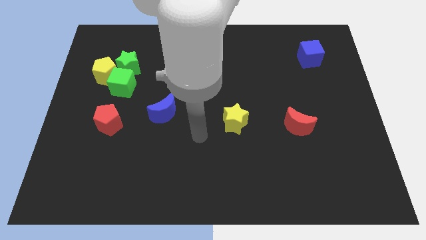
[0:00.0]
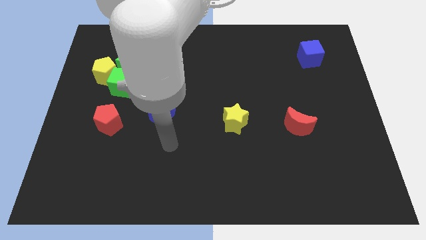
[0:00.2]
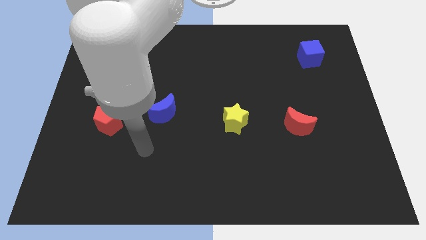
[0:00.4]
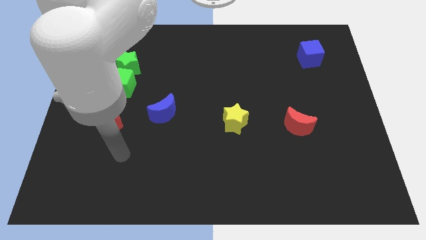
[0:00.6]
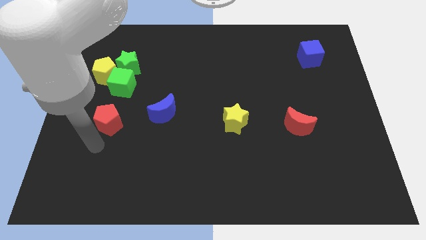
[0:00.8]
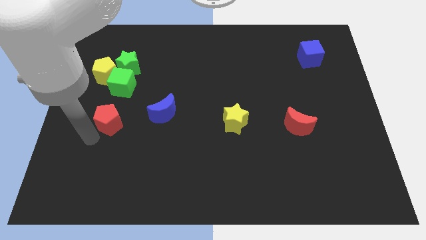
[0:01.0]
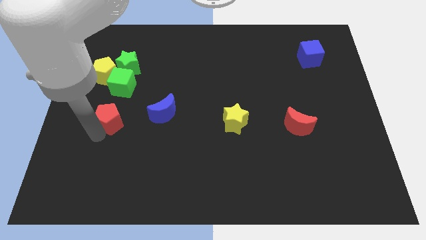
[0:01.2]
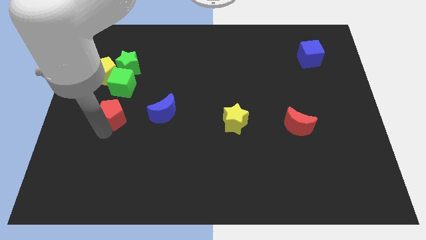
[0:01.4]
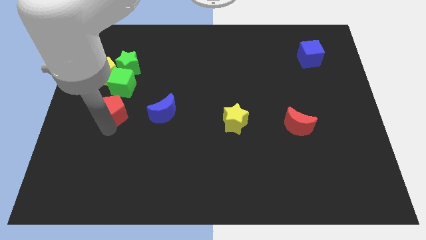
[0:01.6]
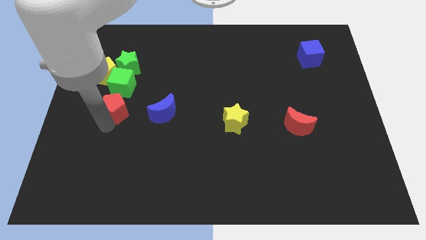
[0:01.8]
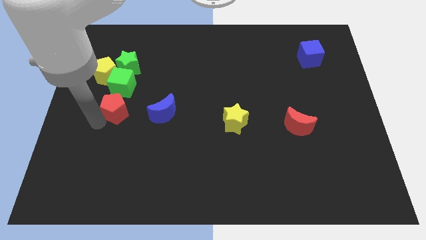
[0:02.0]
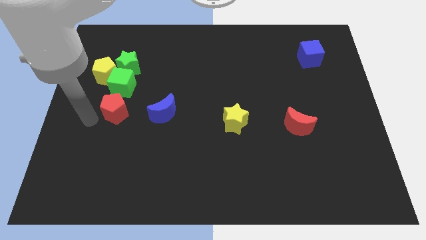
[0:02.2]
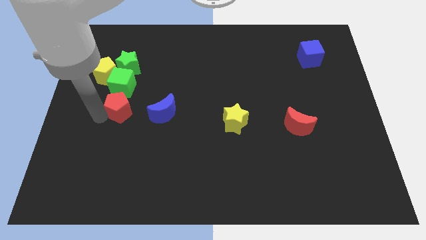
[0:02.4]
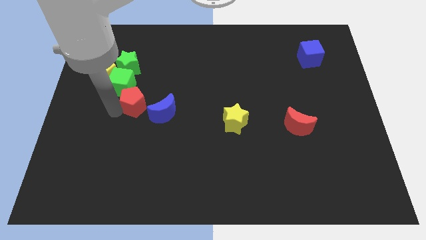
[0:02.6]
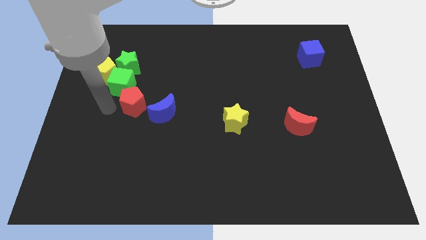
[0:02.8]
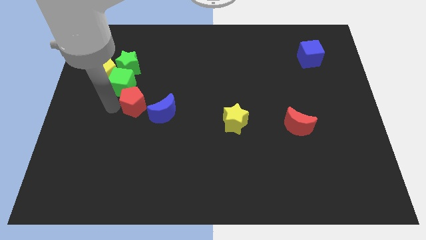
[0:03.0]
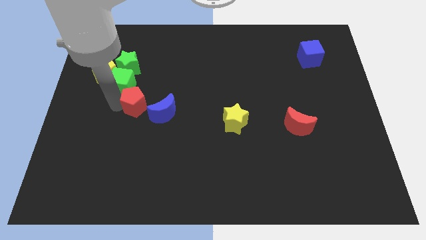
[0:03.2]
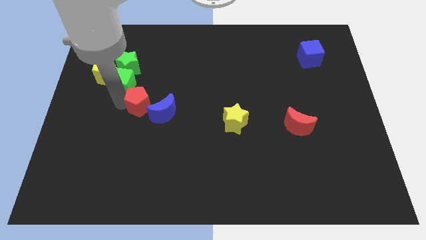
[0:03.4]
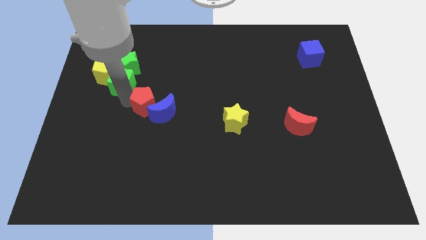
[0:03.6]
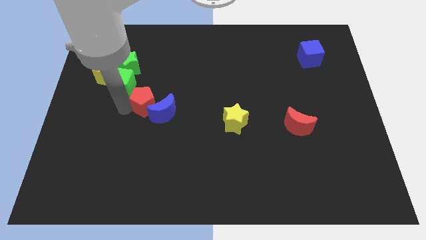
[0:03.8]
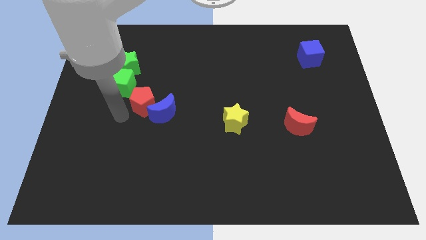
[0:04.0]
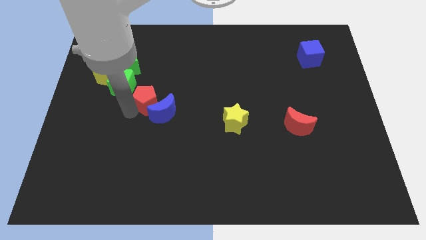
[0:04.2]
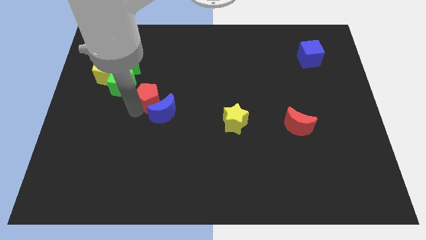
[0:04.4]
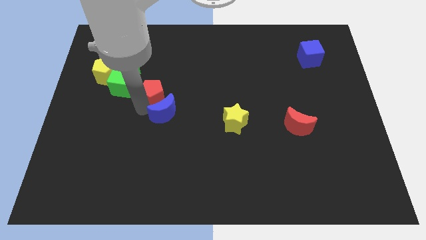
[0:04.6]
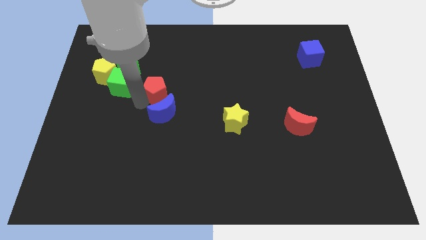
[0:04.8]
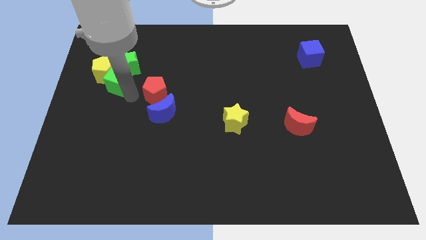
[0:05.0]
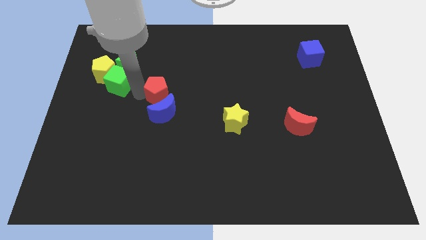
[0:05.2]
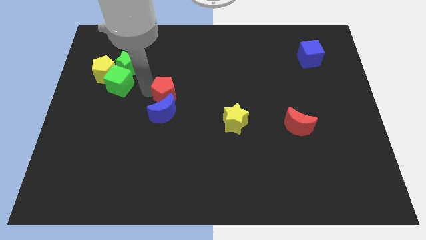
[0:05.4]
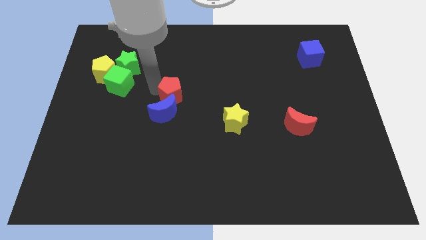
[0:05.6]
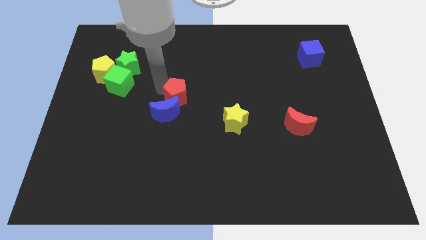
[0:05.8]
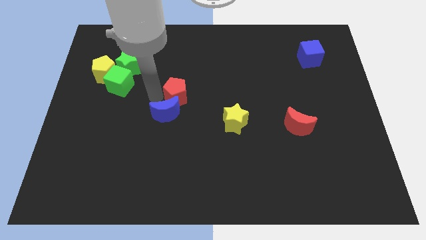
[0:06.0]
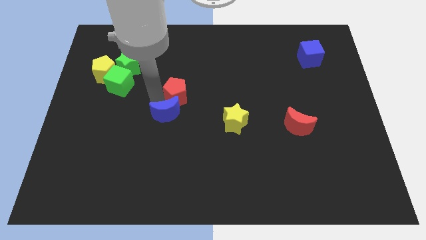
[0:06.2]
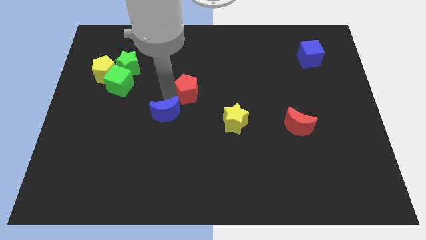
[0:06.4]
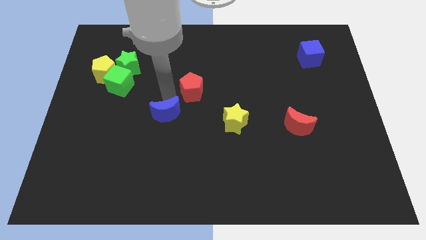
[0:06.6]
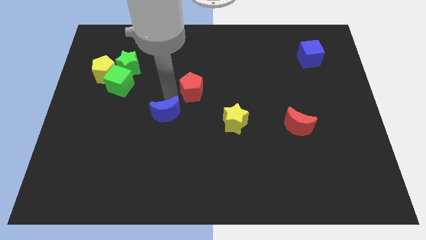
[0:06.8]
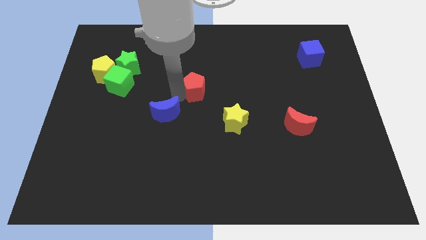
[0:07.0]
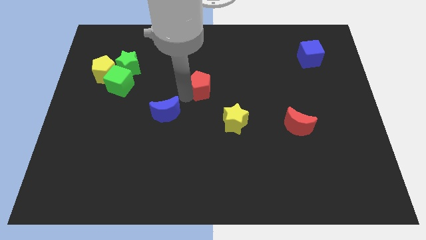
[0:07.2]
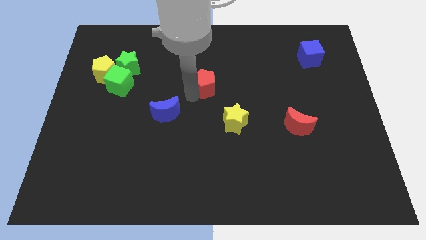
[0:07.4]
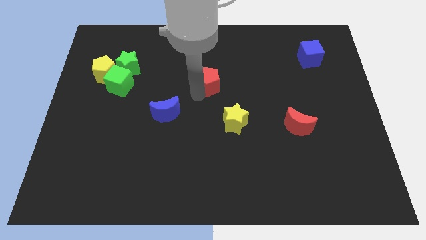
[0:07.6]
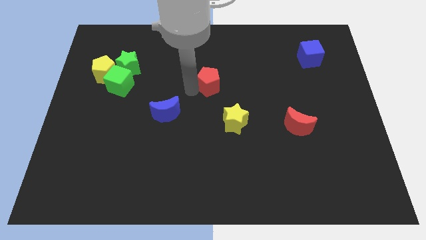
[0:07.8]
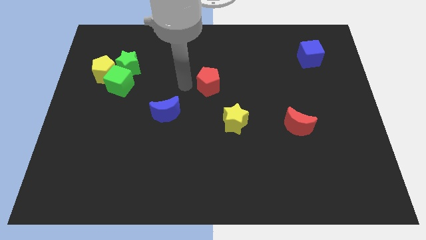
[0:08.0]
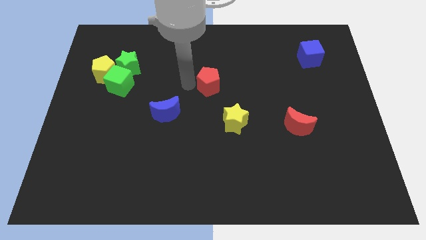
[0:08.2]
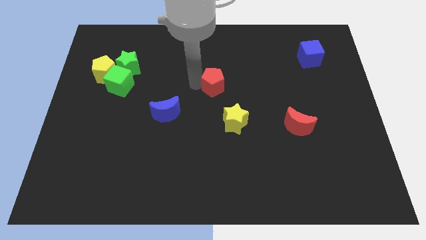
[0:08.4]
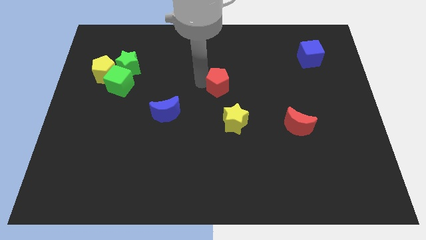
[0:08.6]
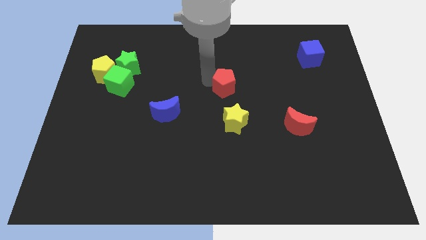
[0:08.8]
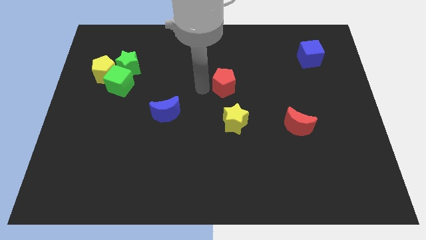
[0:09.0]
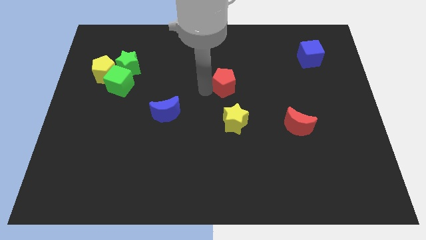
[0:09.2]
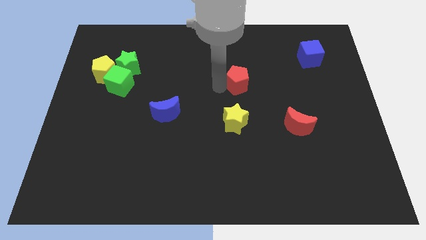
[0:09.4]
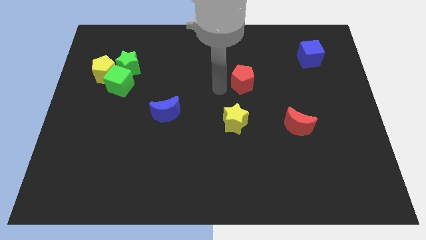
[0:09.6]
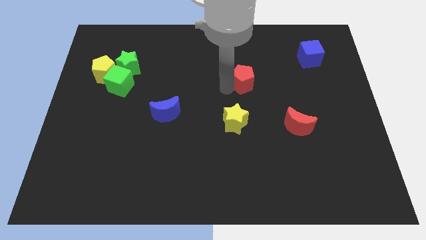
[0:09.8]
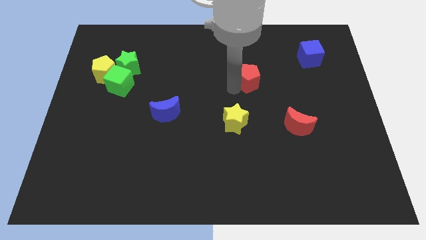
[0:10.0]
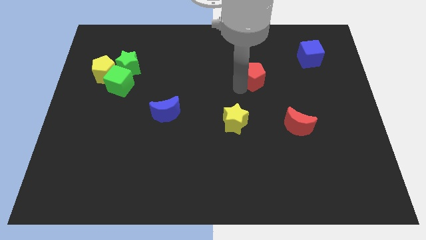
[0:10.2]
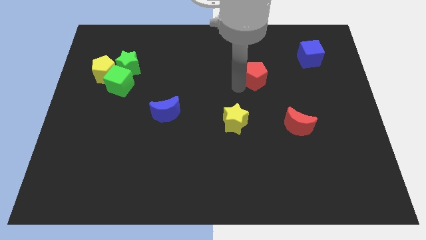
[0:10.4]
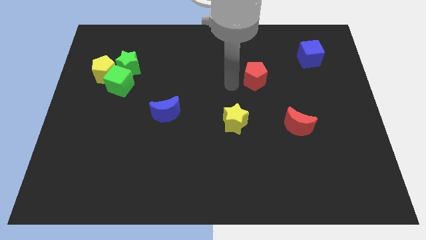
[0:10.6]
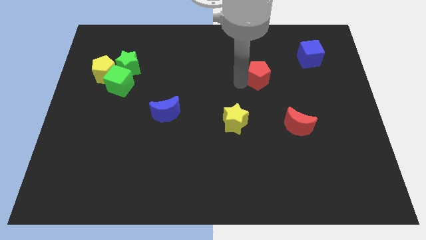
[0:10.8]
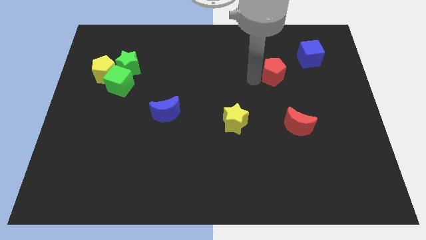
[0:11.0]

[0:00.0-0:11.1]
push the red pentagon diagonally down and to the left of the blue cube

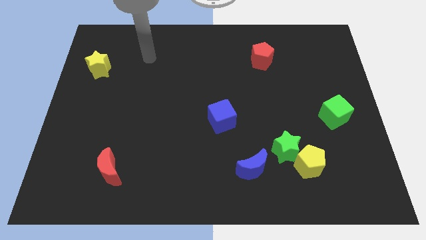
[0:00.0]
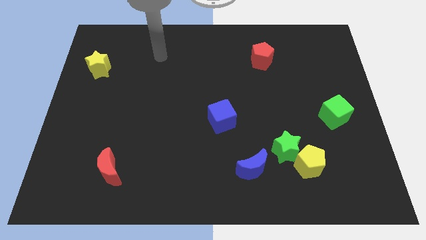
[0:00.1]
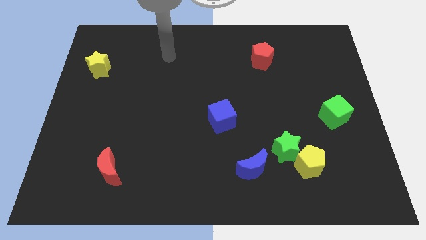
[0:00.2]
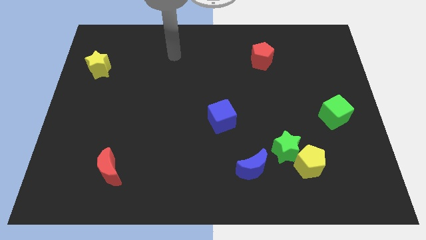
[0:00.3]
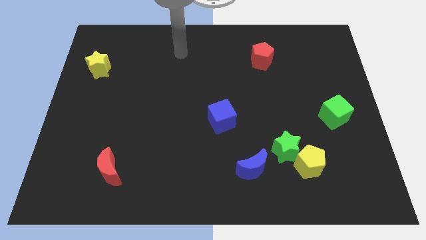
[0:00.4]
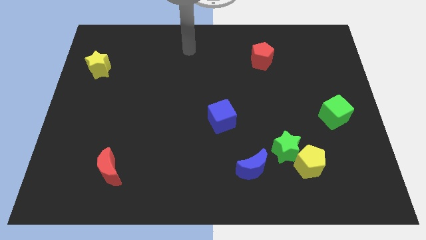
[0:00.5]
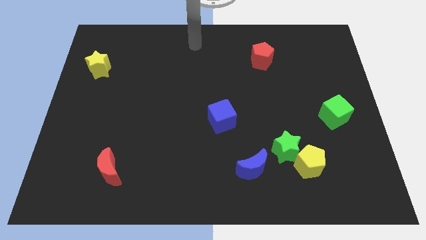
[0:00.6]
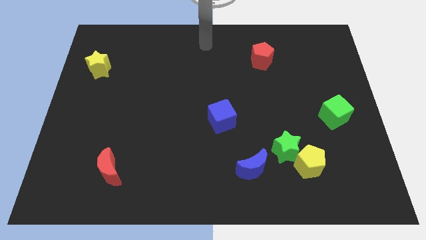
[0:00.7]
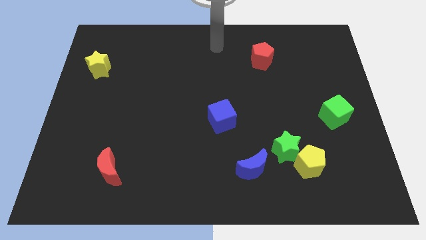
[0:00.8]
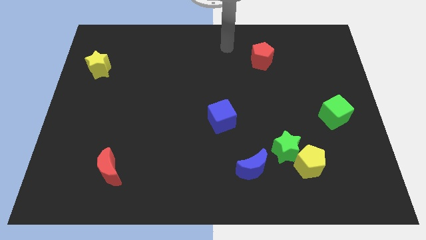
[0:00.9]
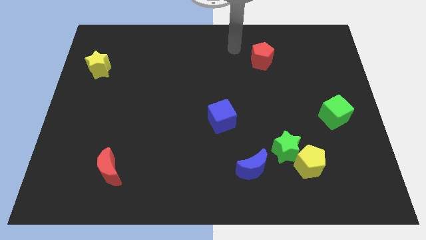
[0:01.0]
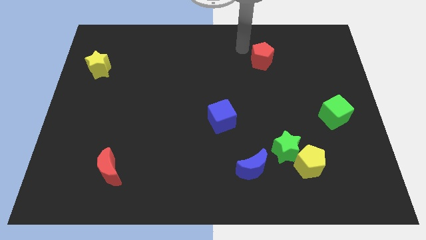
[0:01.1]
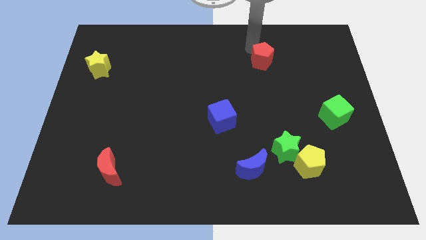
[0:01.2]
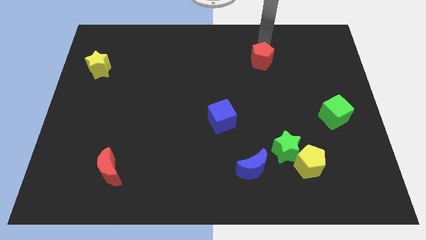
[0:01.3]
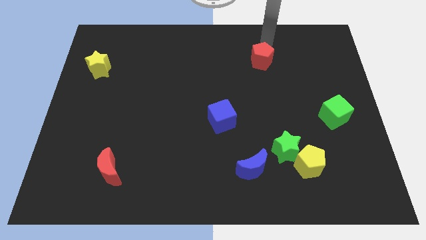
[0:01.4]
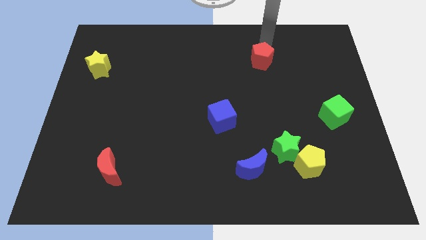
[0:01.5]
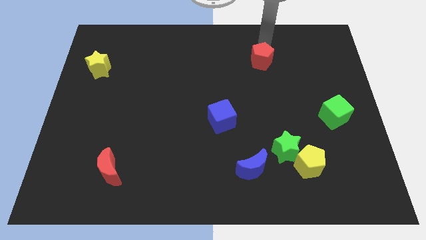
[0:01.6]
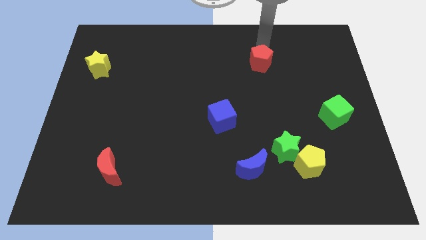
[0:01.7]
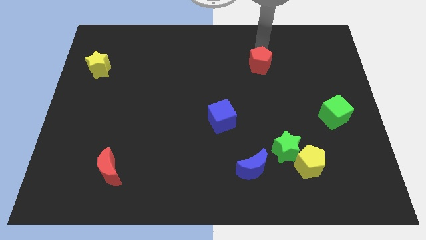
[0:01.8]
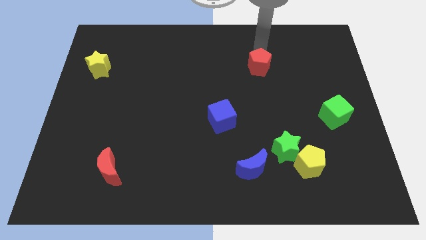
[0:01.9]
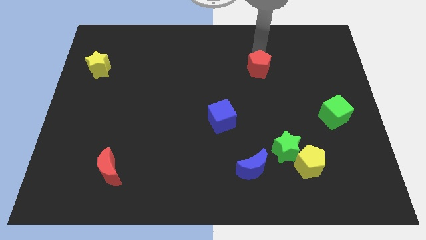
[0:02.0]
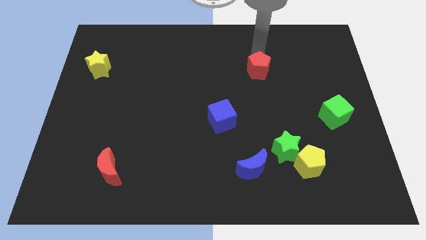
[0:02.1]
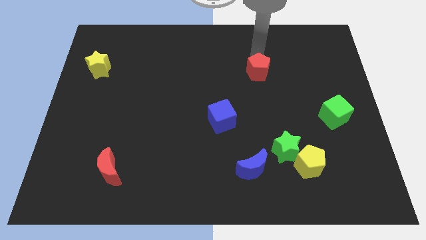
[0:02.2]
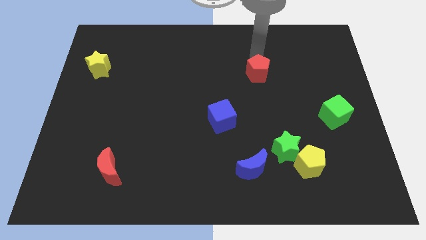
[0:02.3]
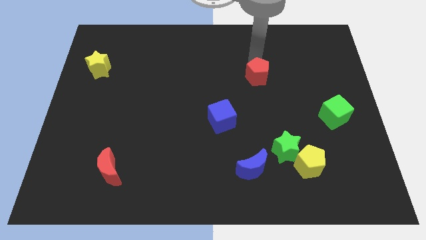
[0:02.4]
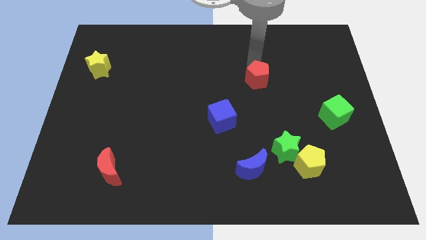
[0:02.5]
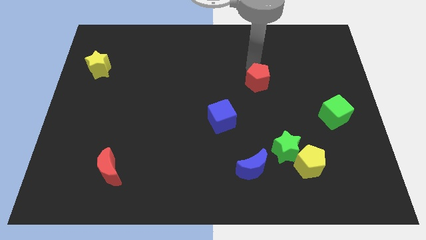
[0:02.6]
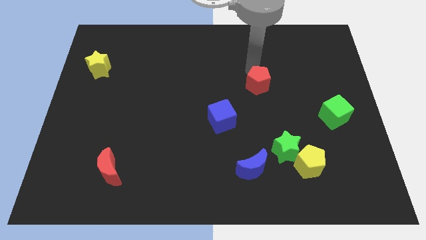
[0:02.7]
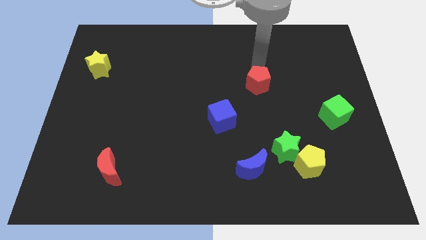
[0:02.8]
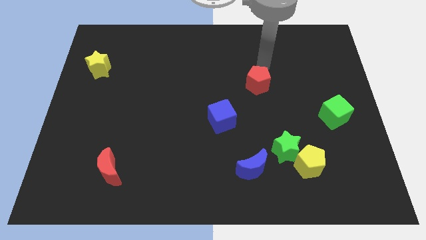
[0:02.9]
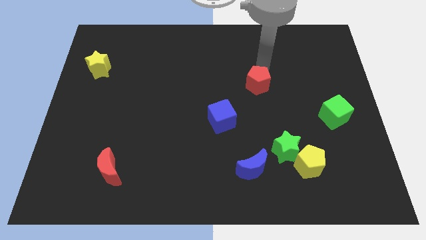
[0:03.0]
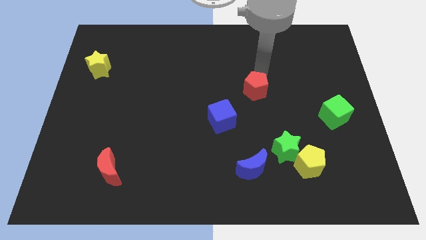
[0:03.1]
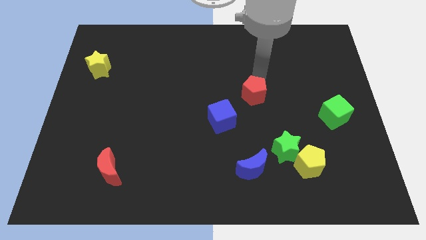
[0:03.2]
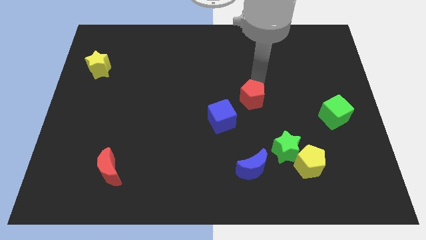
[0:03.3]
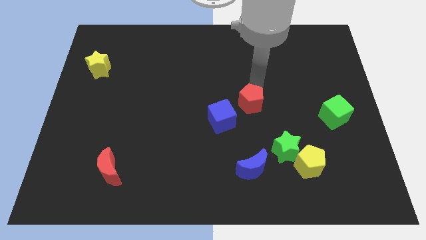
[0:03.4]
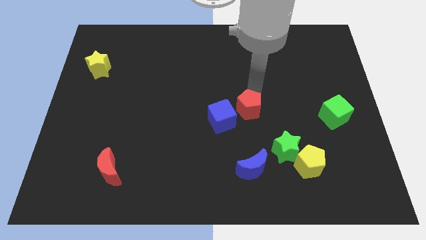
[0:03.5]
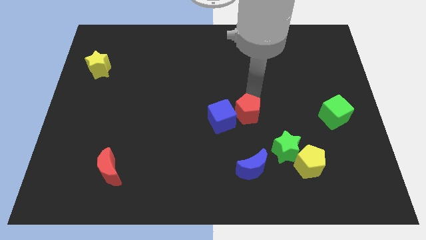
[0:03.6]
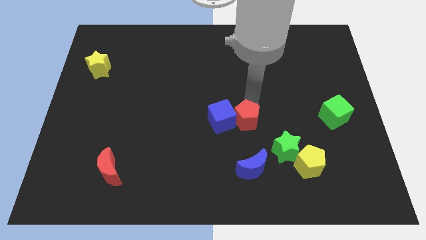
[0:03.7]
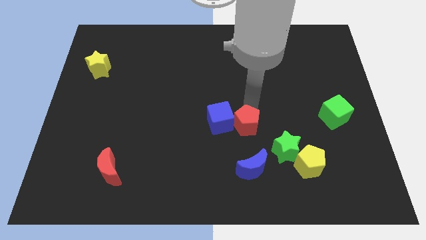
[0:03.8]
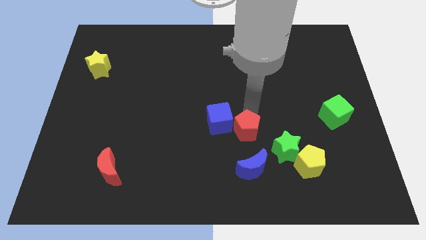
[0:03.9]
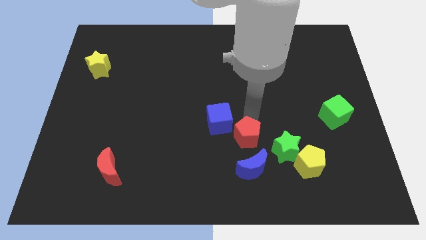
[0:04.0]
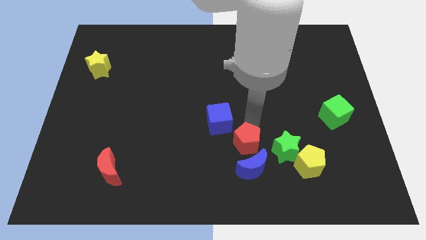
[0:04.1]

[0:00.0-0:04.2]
move the red pentagon to the top left of the blue moon
